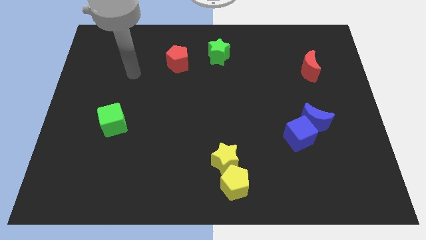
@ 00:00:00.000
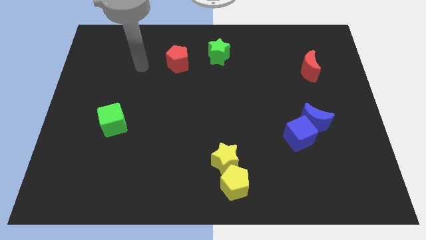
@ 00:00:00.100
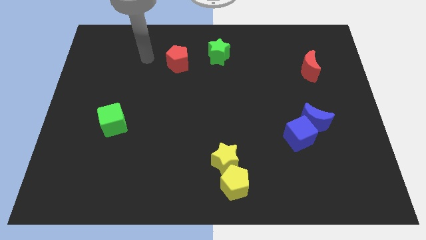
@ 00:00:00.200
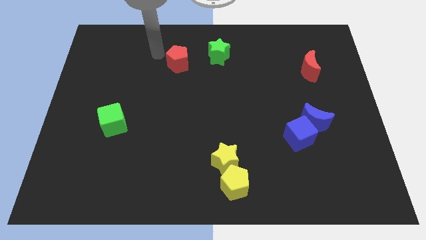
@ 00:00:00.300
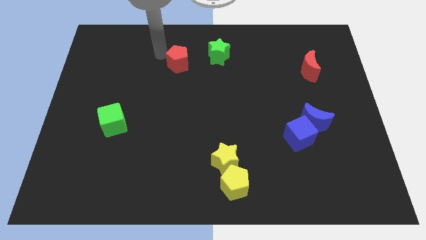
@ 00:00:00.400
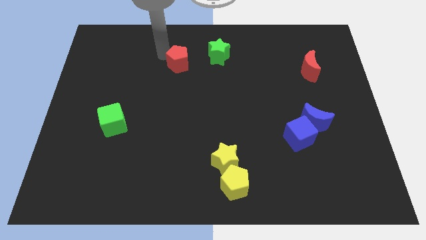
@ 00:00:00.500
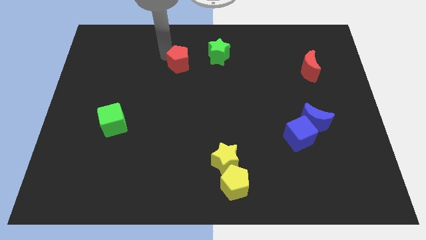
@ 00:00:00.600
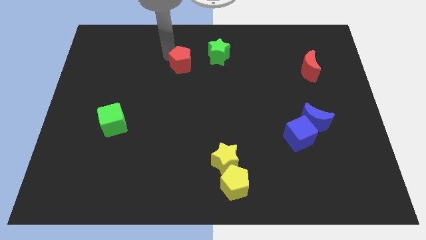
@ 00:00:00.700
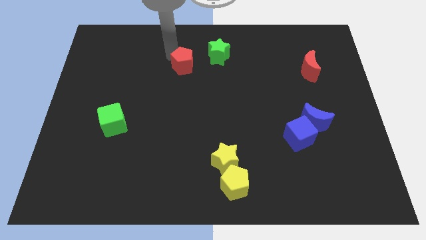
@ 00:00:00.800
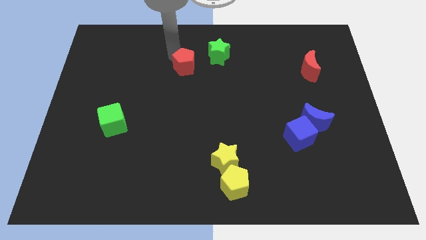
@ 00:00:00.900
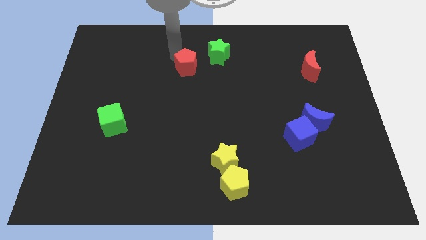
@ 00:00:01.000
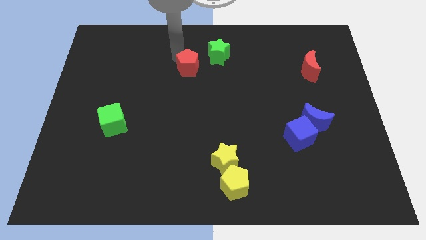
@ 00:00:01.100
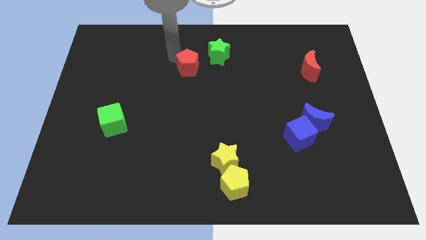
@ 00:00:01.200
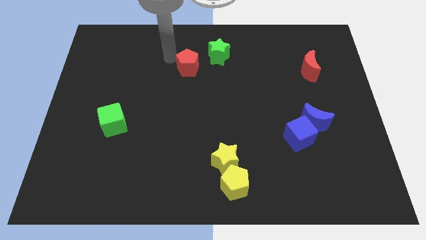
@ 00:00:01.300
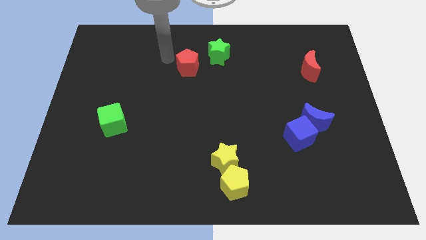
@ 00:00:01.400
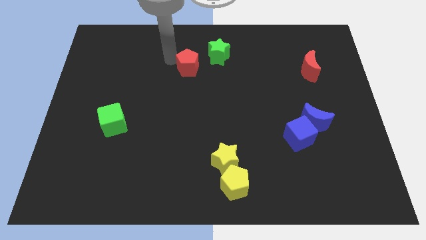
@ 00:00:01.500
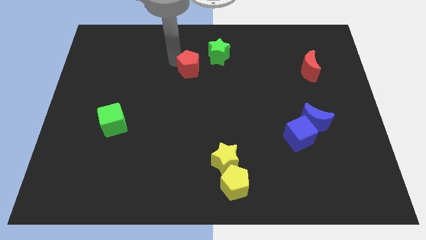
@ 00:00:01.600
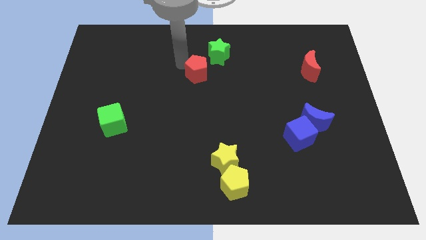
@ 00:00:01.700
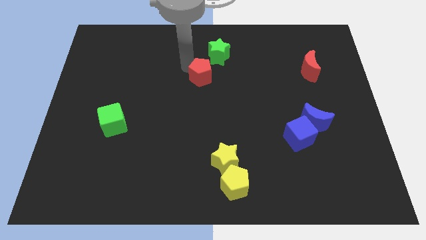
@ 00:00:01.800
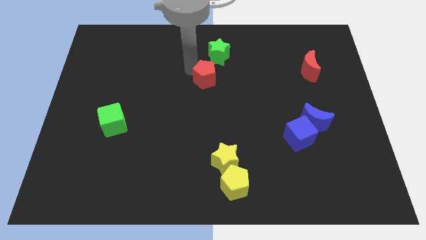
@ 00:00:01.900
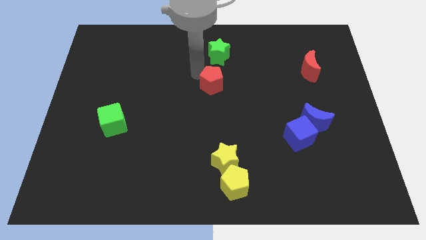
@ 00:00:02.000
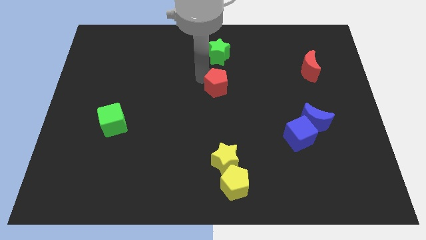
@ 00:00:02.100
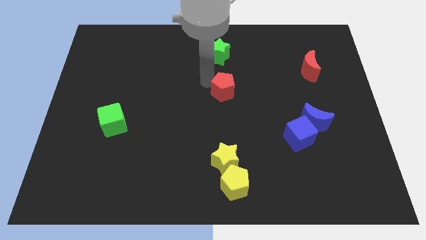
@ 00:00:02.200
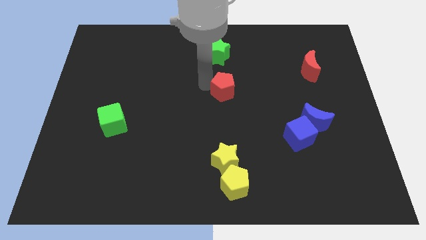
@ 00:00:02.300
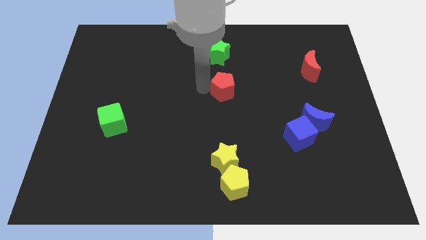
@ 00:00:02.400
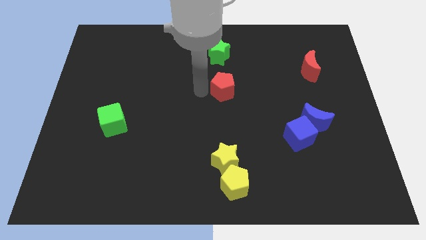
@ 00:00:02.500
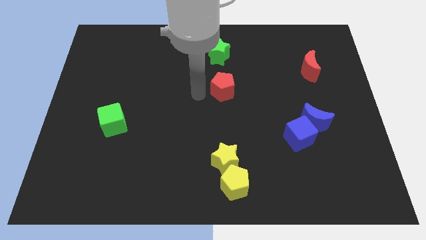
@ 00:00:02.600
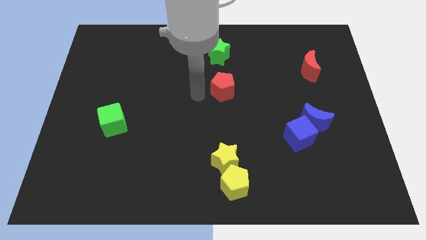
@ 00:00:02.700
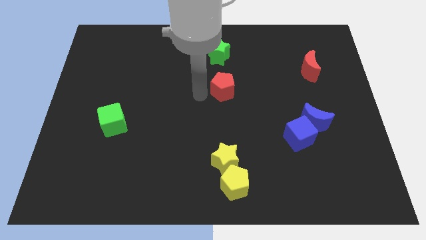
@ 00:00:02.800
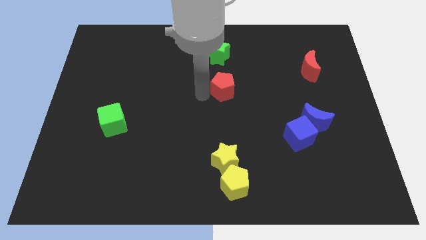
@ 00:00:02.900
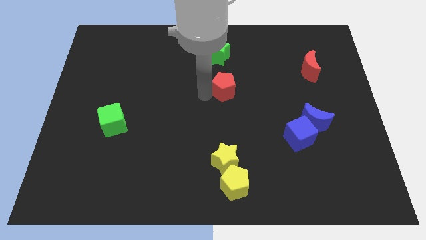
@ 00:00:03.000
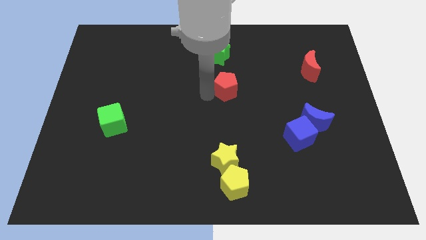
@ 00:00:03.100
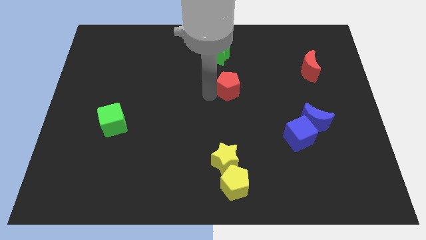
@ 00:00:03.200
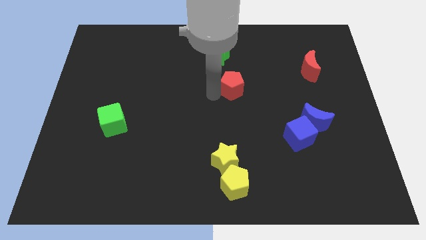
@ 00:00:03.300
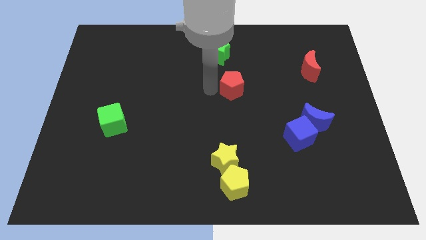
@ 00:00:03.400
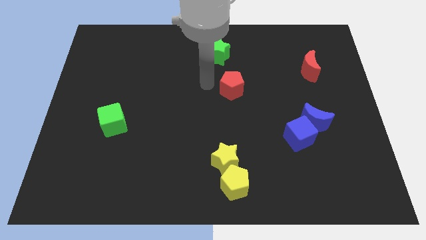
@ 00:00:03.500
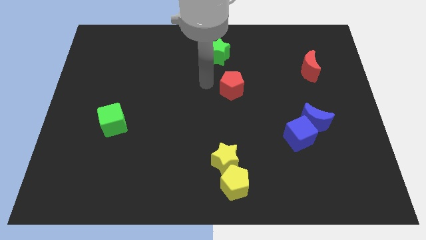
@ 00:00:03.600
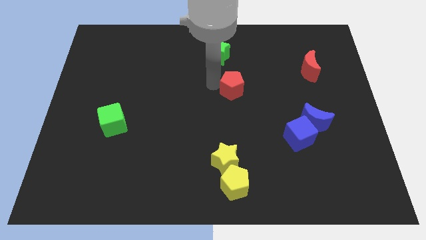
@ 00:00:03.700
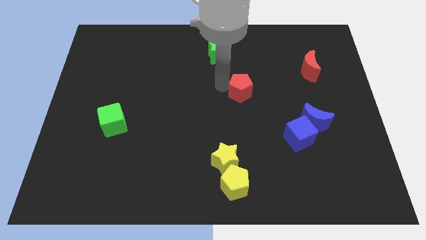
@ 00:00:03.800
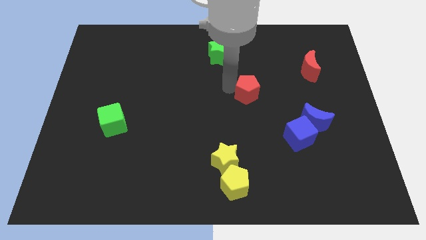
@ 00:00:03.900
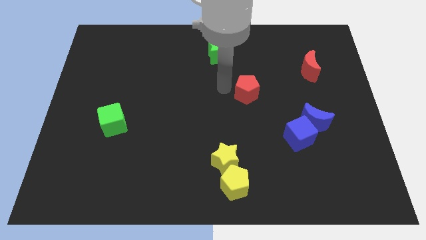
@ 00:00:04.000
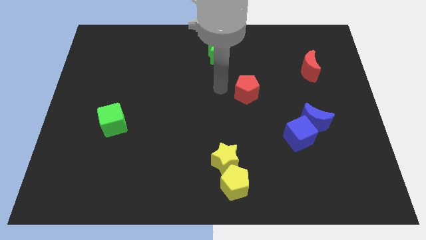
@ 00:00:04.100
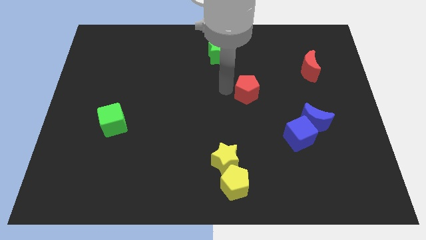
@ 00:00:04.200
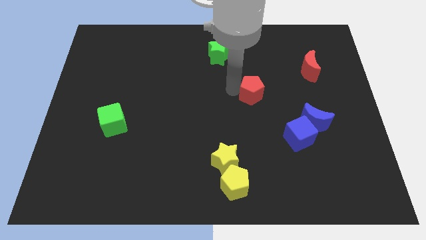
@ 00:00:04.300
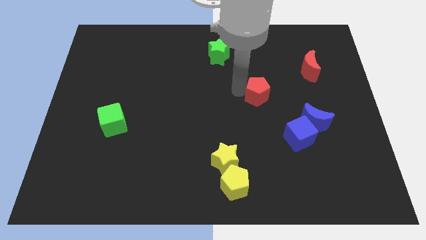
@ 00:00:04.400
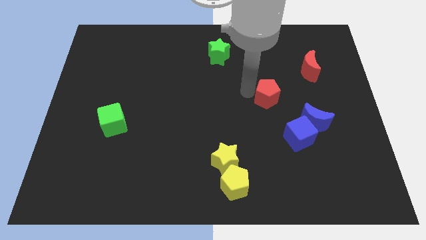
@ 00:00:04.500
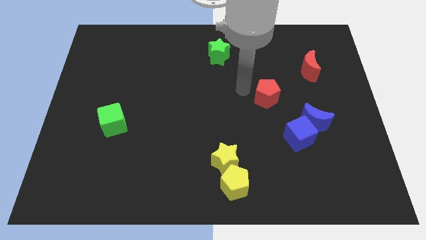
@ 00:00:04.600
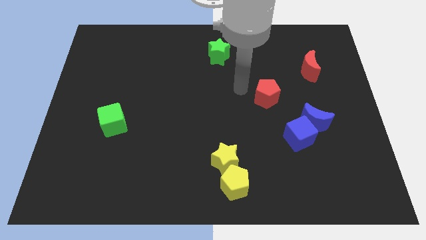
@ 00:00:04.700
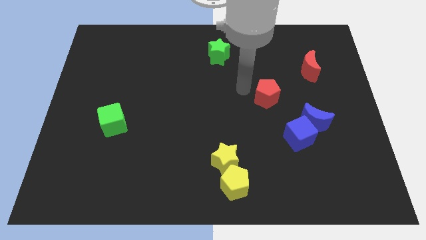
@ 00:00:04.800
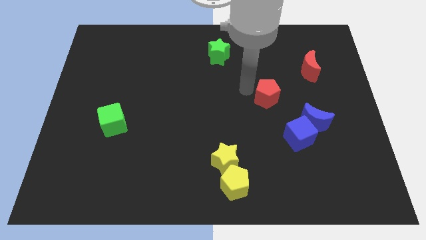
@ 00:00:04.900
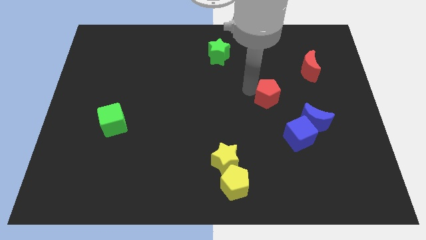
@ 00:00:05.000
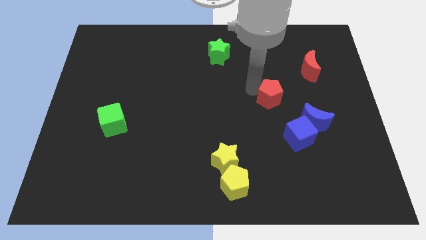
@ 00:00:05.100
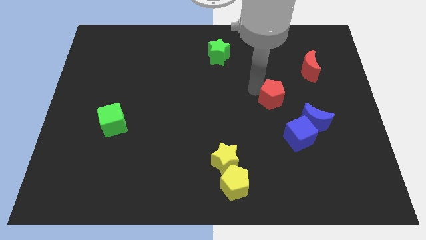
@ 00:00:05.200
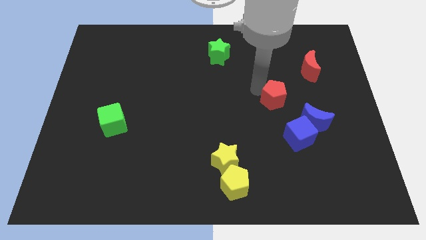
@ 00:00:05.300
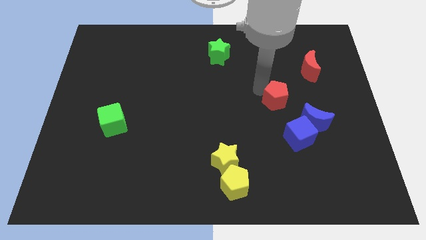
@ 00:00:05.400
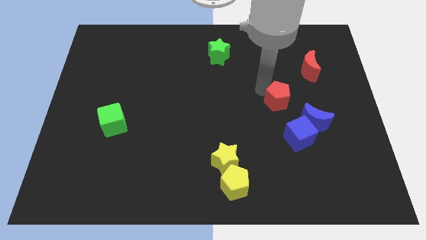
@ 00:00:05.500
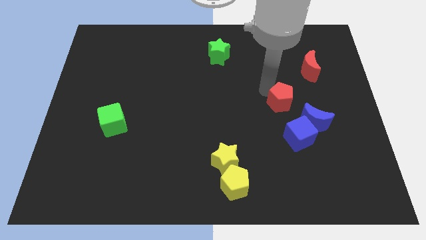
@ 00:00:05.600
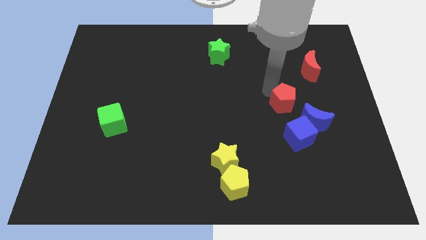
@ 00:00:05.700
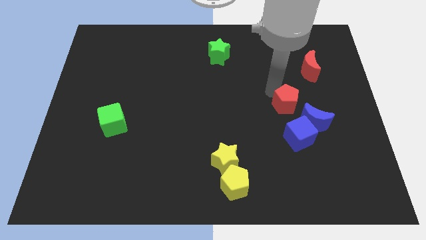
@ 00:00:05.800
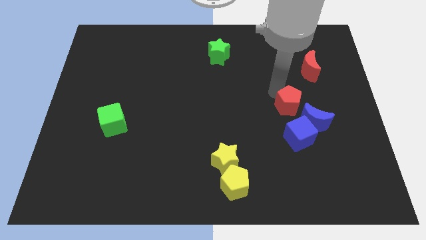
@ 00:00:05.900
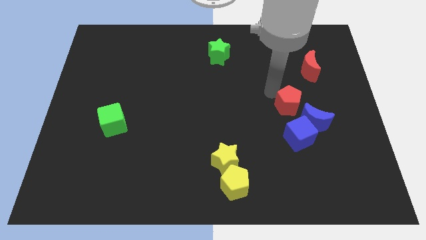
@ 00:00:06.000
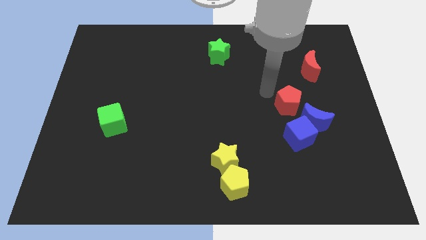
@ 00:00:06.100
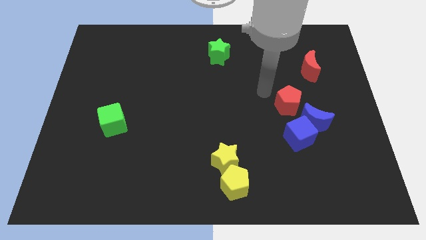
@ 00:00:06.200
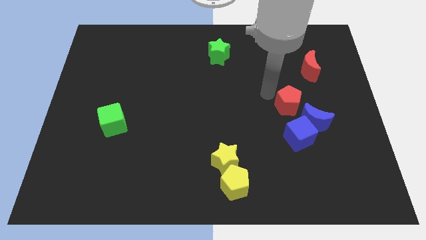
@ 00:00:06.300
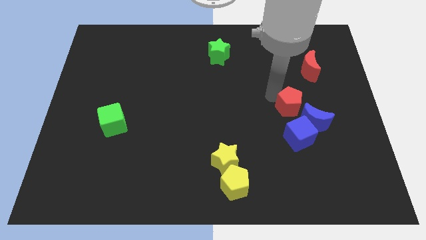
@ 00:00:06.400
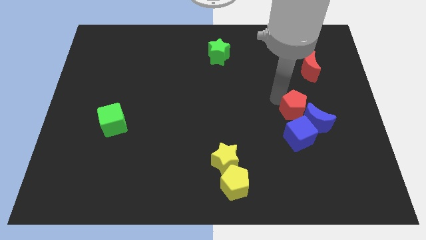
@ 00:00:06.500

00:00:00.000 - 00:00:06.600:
put the red pentagon towards the blue moon
